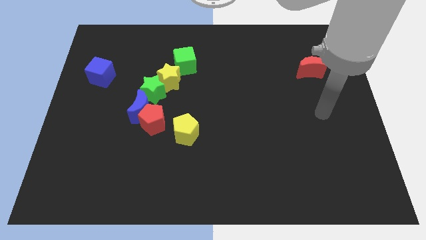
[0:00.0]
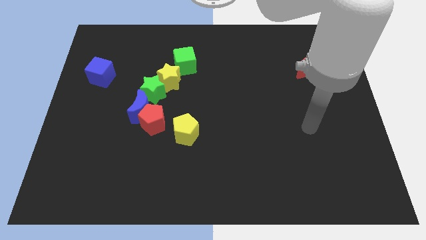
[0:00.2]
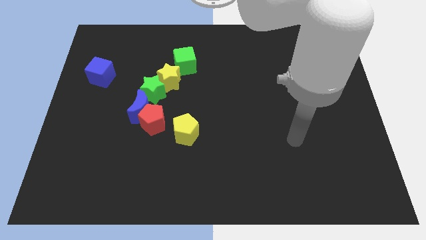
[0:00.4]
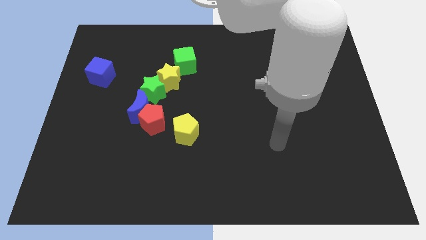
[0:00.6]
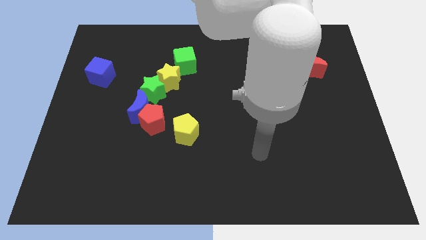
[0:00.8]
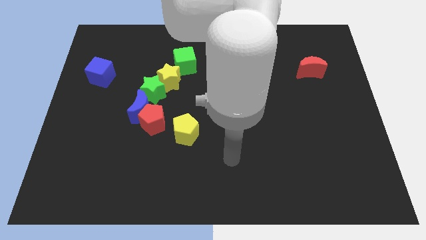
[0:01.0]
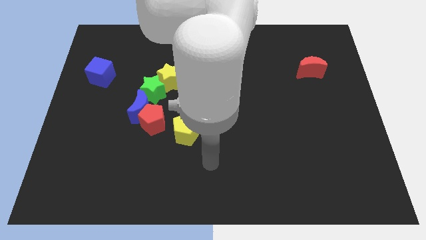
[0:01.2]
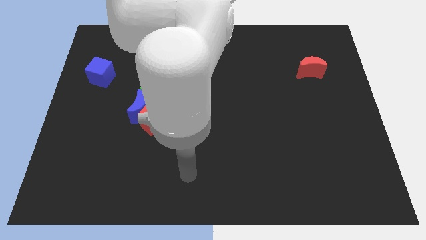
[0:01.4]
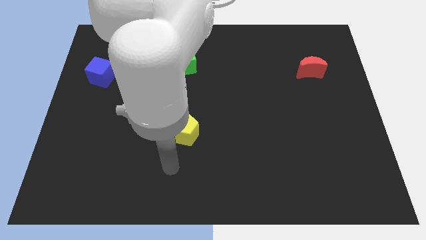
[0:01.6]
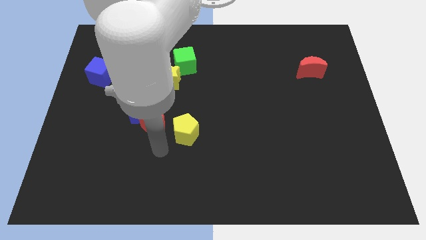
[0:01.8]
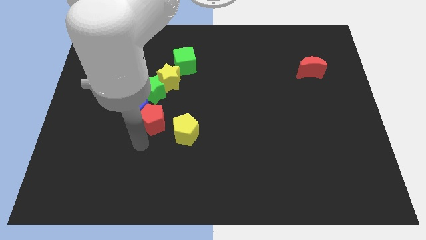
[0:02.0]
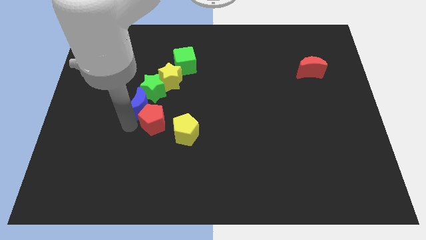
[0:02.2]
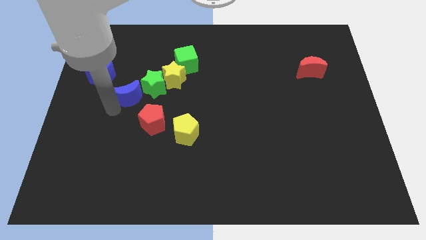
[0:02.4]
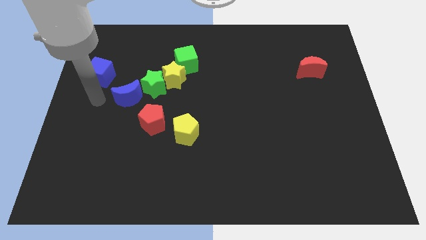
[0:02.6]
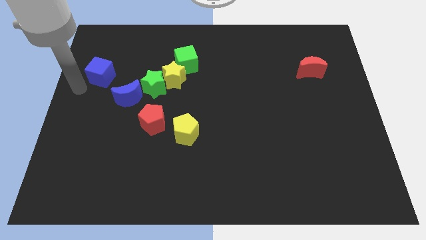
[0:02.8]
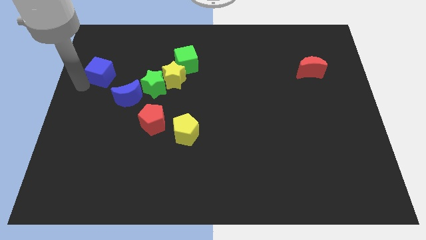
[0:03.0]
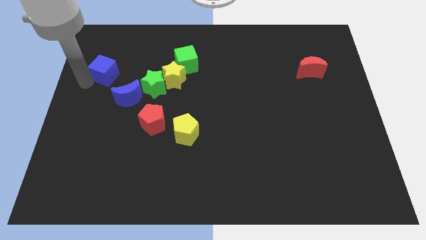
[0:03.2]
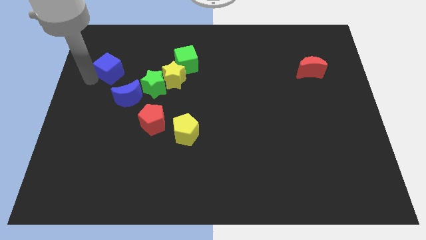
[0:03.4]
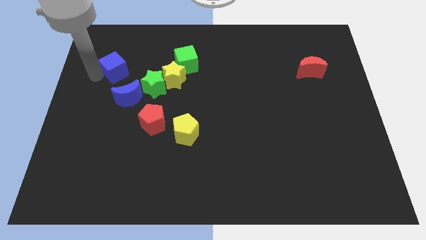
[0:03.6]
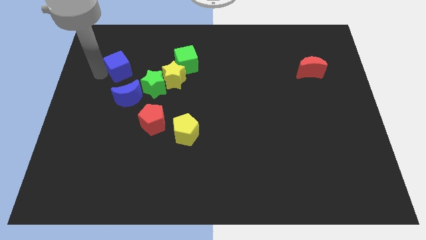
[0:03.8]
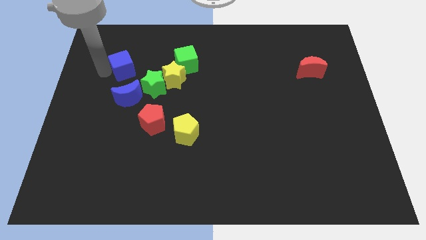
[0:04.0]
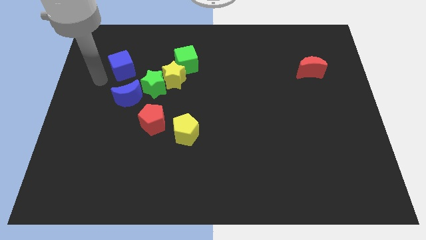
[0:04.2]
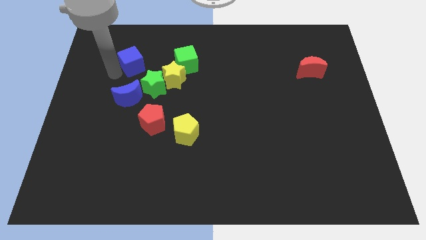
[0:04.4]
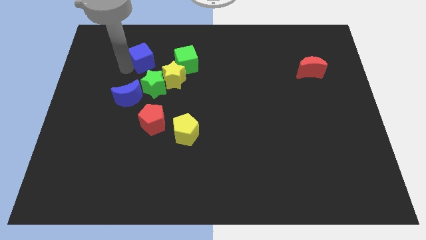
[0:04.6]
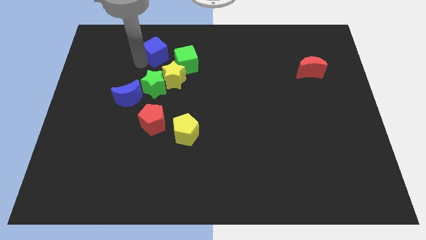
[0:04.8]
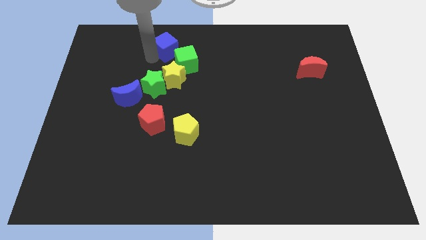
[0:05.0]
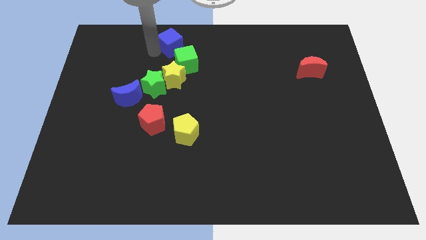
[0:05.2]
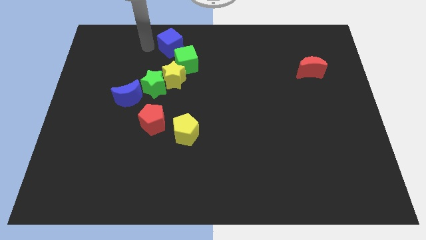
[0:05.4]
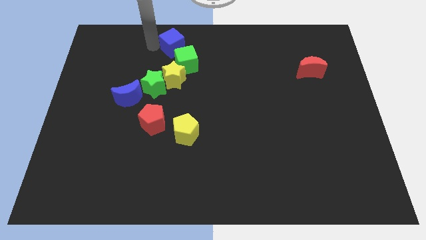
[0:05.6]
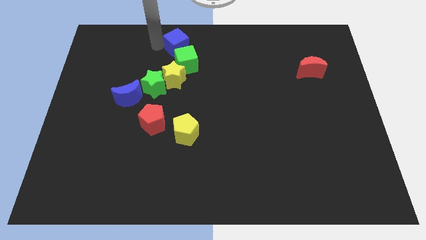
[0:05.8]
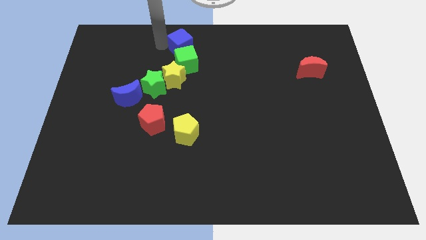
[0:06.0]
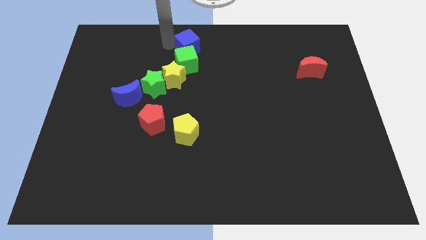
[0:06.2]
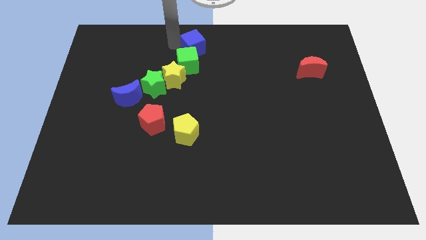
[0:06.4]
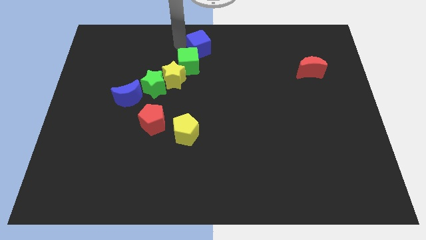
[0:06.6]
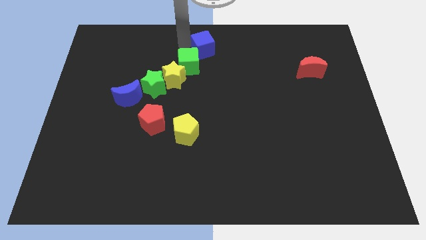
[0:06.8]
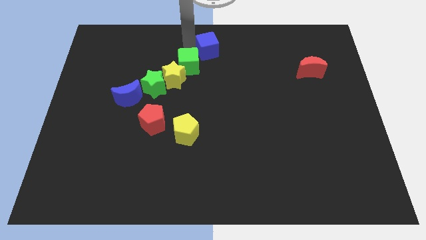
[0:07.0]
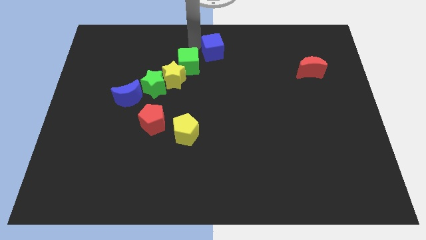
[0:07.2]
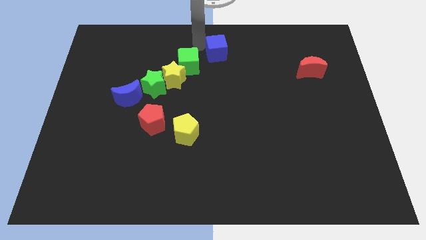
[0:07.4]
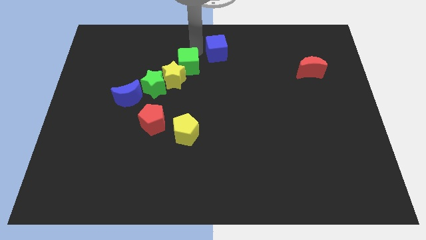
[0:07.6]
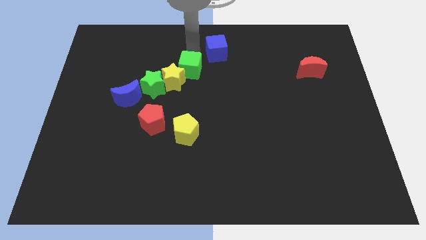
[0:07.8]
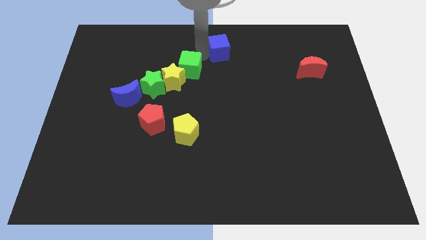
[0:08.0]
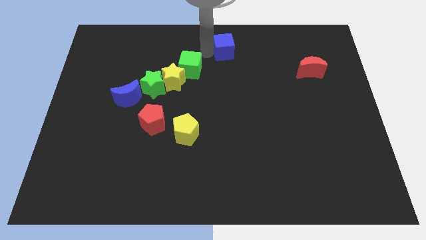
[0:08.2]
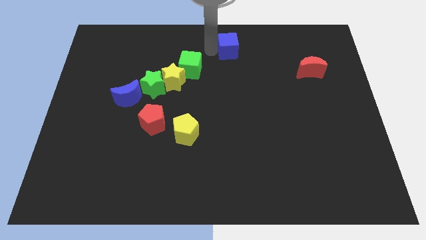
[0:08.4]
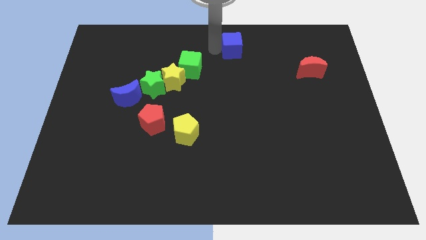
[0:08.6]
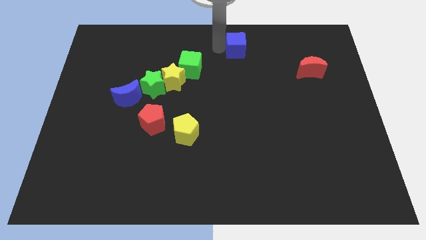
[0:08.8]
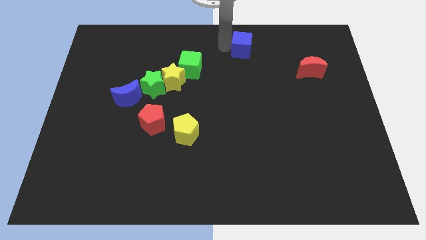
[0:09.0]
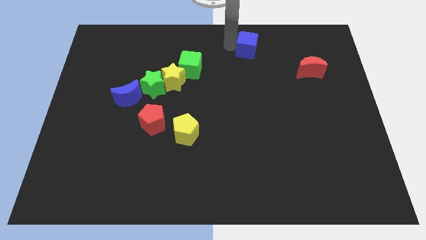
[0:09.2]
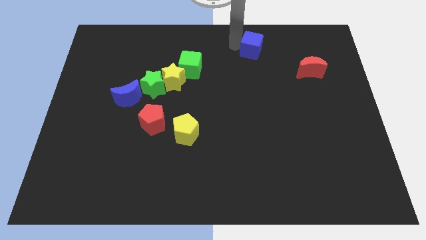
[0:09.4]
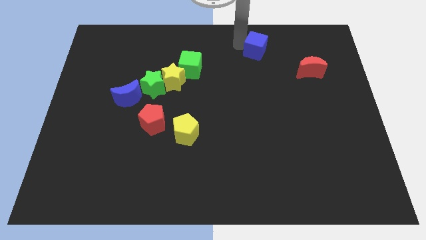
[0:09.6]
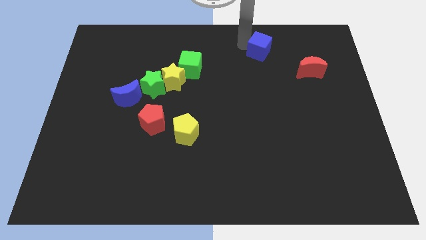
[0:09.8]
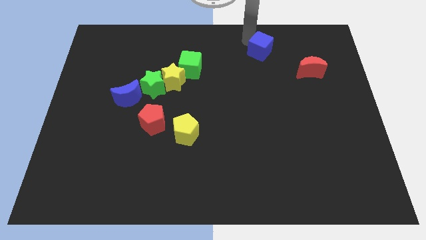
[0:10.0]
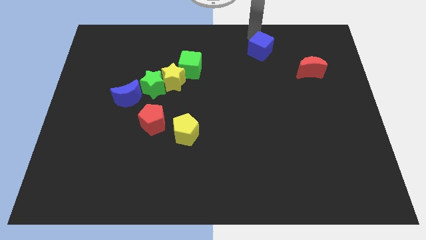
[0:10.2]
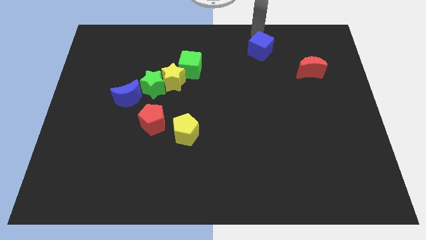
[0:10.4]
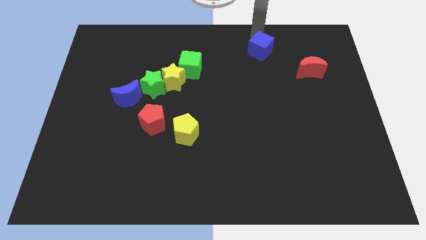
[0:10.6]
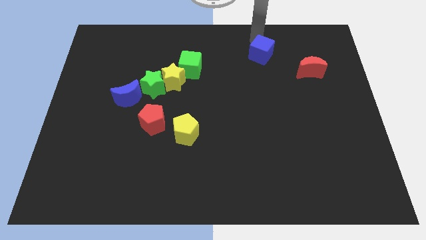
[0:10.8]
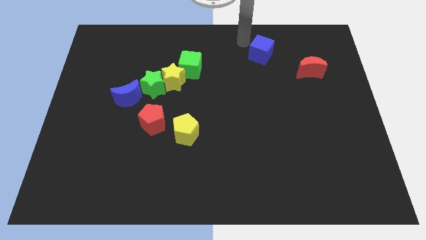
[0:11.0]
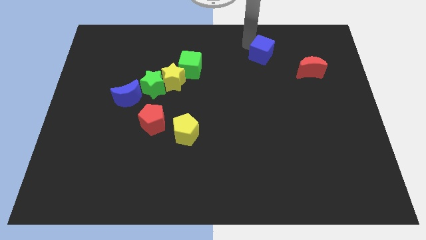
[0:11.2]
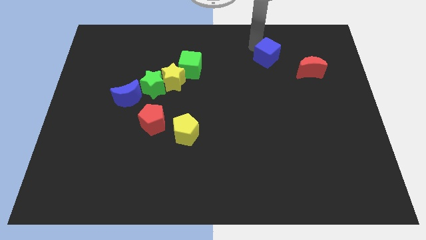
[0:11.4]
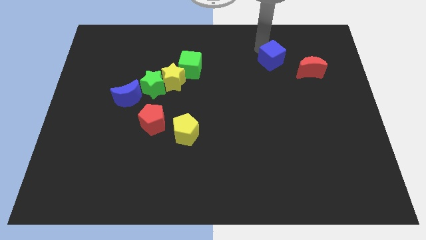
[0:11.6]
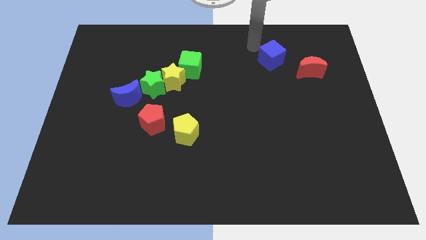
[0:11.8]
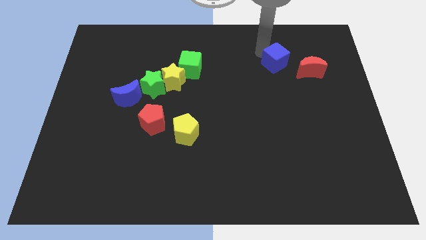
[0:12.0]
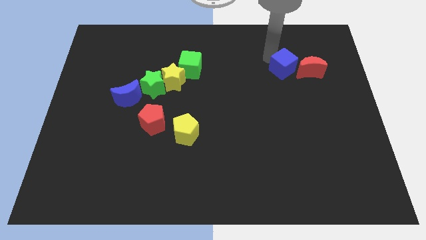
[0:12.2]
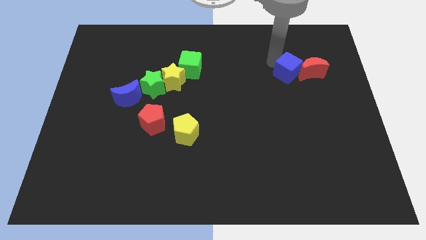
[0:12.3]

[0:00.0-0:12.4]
move the blue cube close to the red moon
